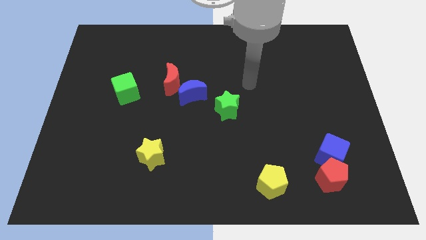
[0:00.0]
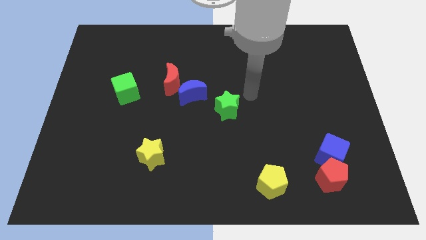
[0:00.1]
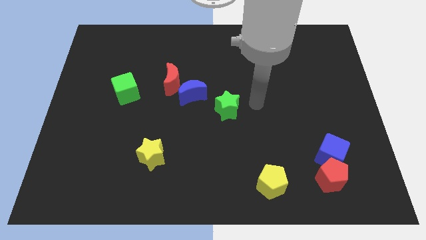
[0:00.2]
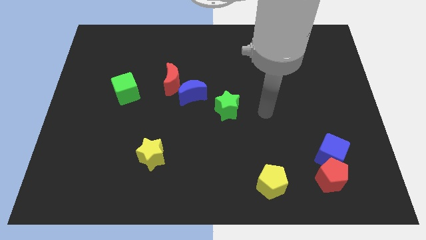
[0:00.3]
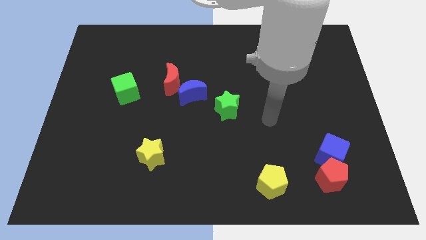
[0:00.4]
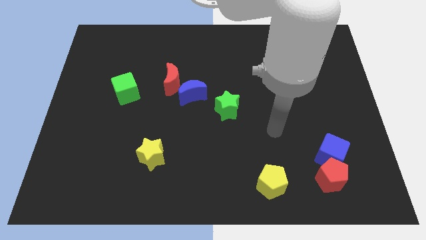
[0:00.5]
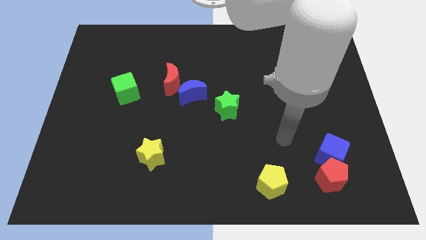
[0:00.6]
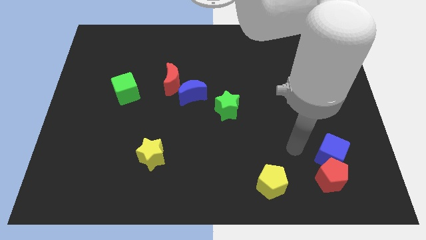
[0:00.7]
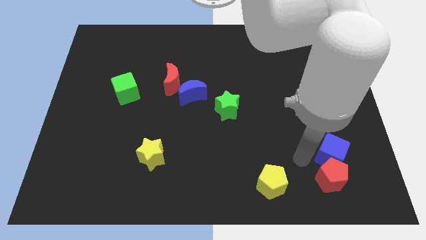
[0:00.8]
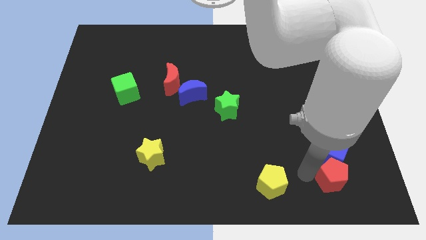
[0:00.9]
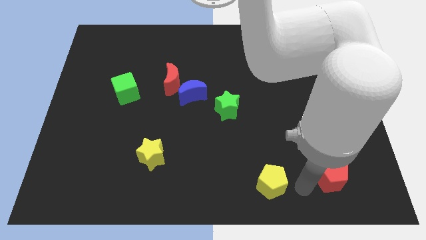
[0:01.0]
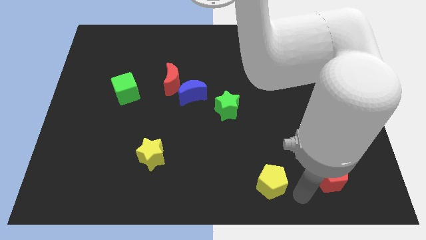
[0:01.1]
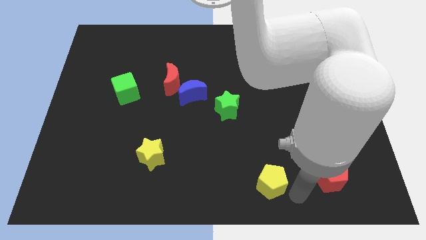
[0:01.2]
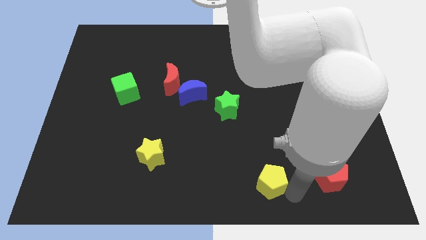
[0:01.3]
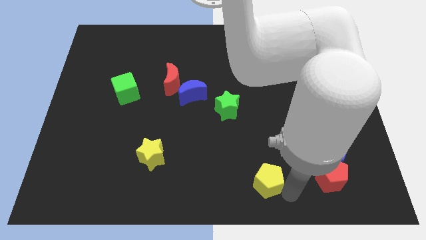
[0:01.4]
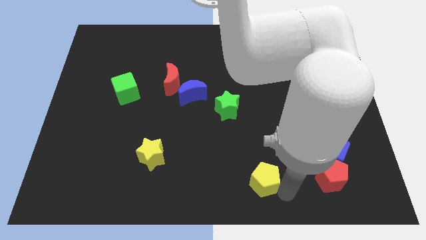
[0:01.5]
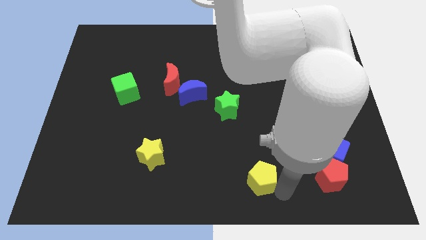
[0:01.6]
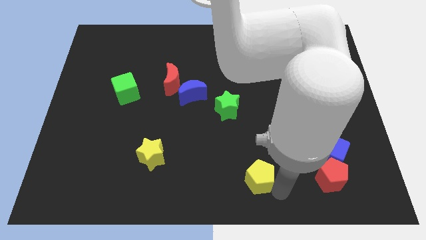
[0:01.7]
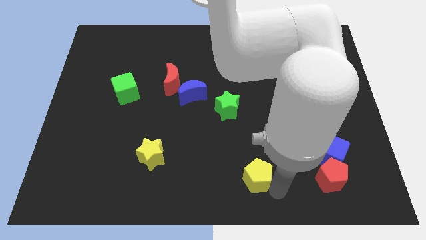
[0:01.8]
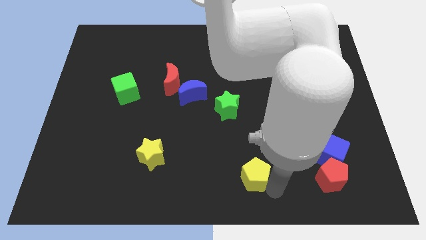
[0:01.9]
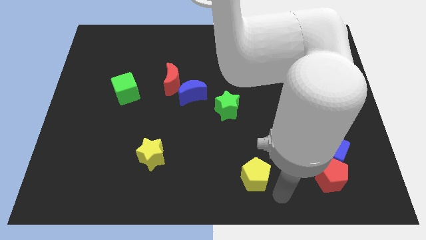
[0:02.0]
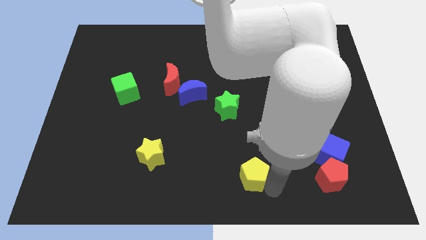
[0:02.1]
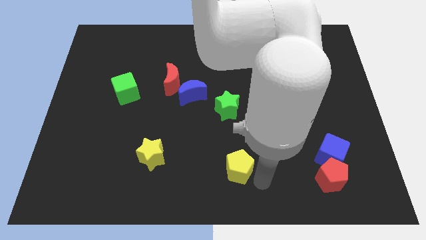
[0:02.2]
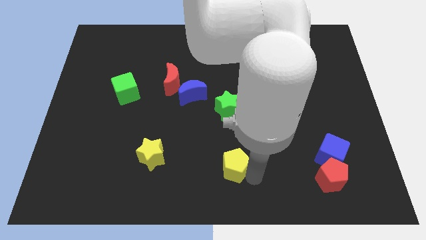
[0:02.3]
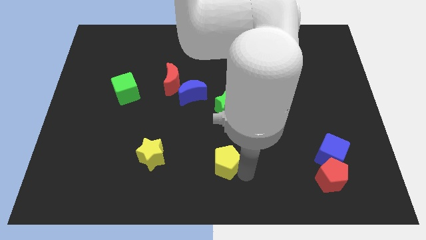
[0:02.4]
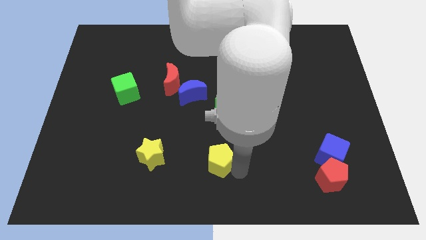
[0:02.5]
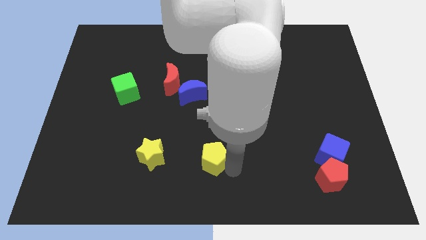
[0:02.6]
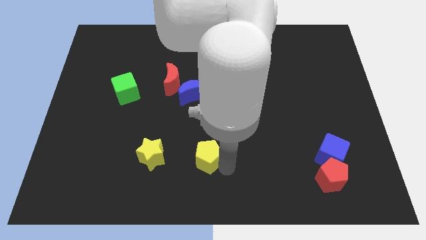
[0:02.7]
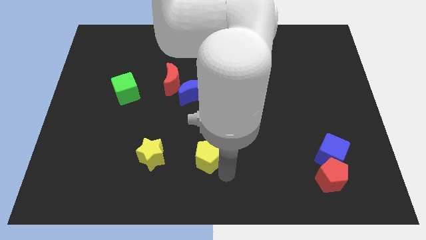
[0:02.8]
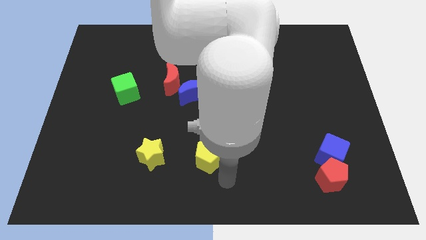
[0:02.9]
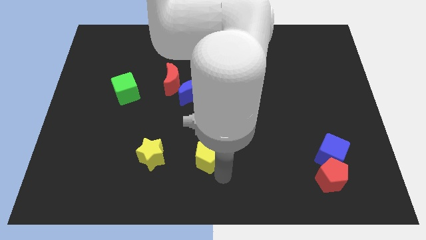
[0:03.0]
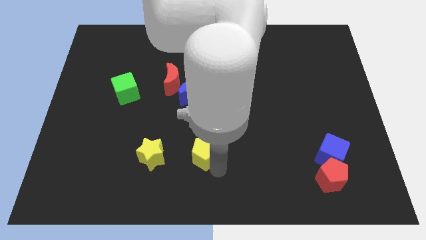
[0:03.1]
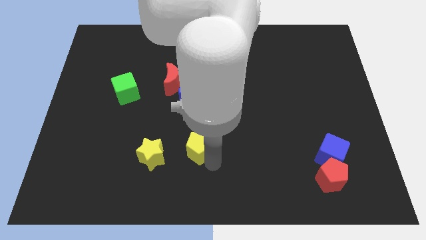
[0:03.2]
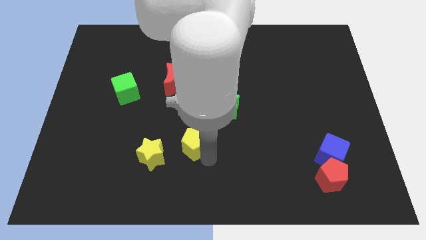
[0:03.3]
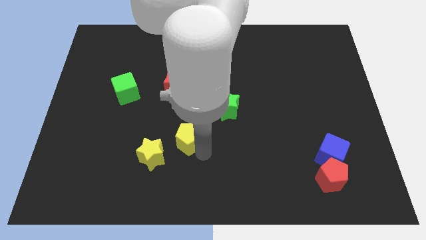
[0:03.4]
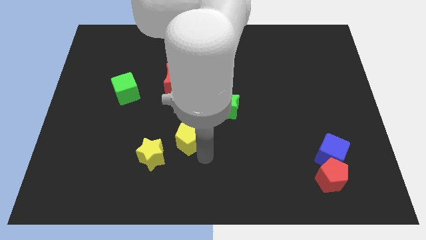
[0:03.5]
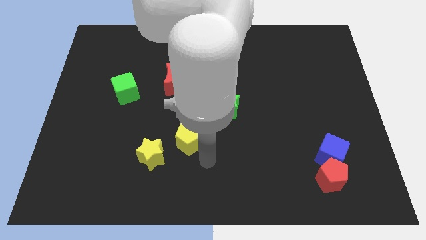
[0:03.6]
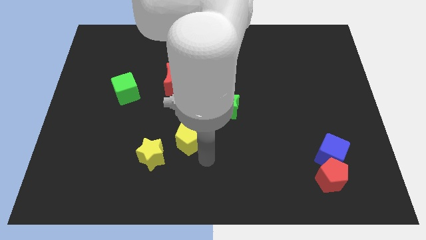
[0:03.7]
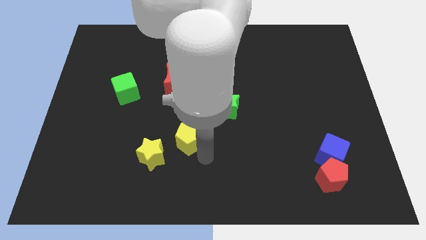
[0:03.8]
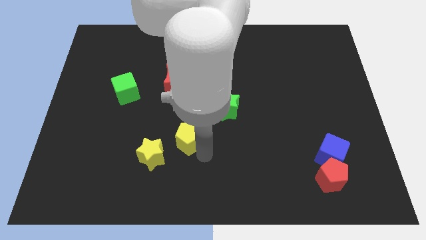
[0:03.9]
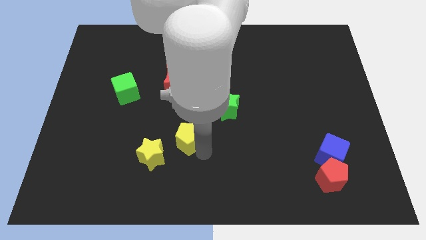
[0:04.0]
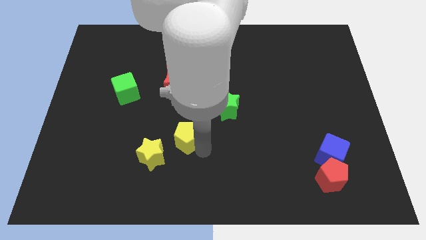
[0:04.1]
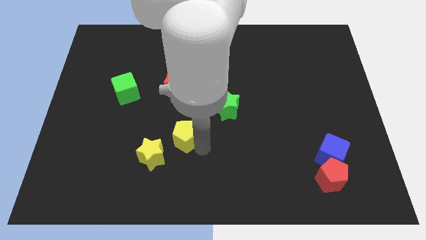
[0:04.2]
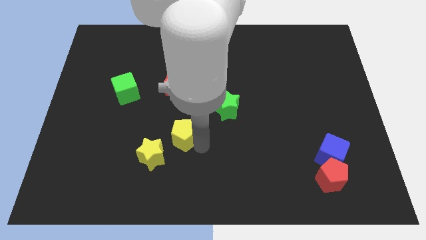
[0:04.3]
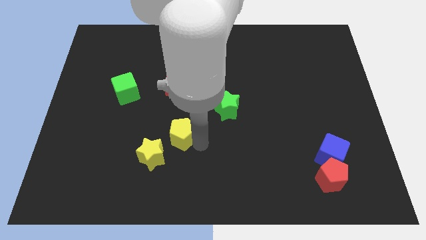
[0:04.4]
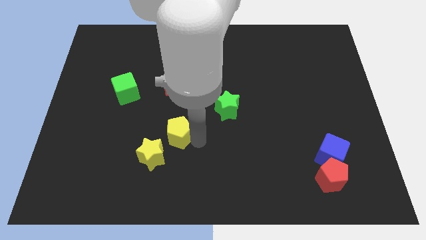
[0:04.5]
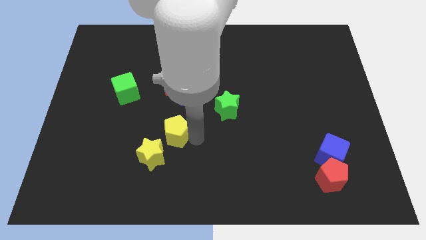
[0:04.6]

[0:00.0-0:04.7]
push the yellow pentagon to the top side of the yellow star

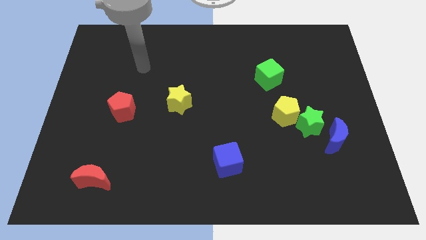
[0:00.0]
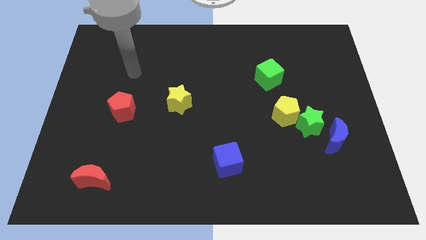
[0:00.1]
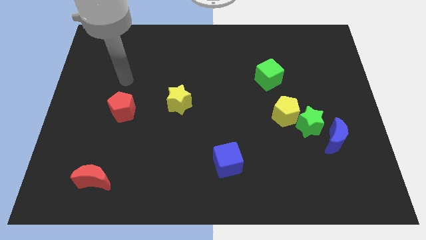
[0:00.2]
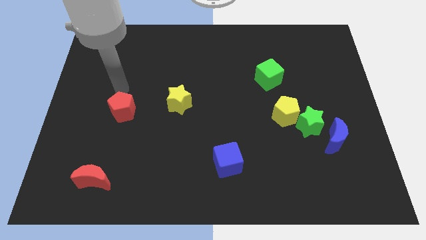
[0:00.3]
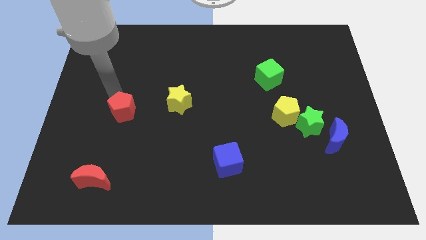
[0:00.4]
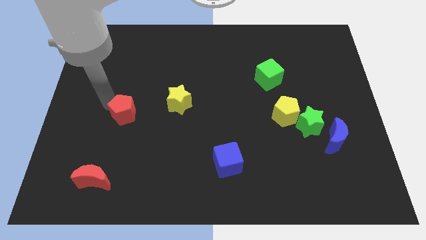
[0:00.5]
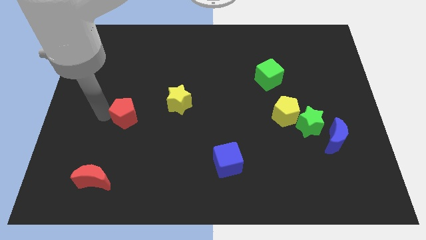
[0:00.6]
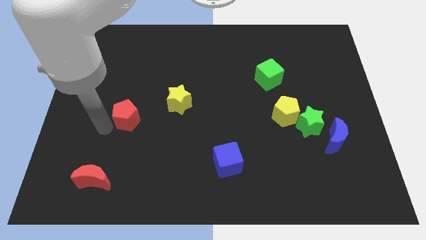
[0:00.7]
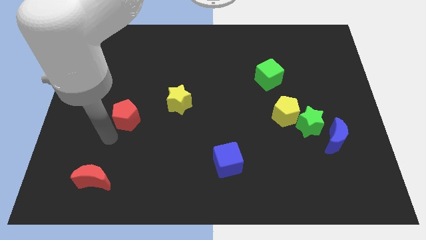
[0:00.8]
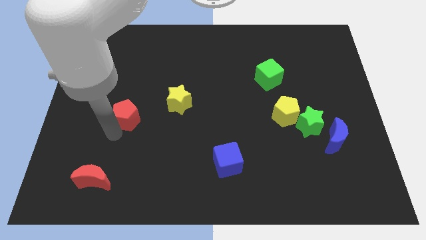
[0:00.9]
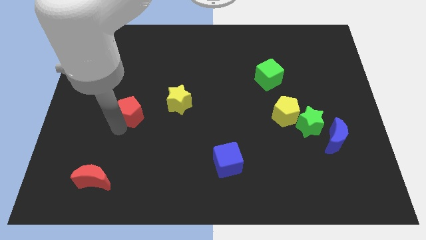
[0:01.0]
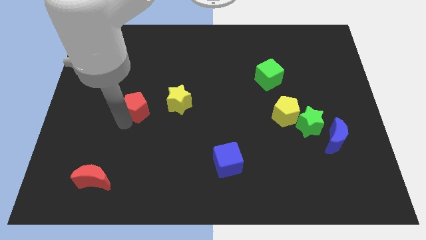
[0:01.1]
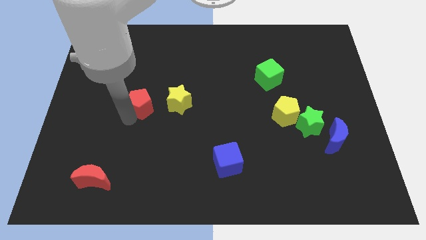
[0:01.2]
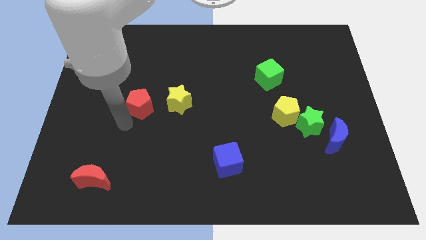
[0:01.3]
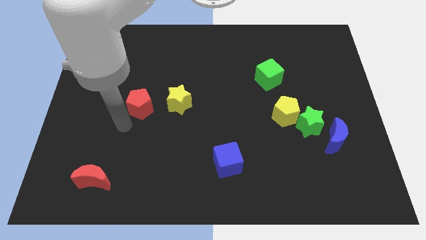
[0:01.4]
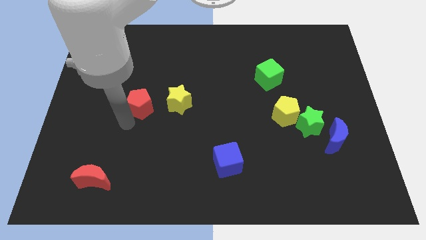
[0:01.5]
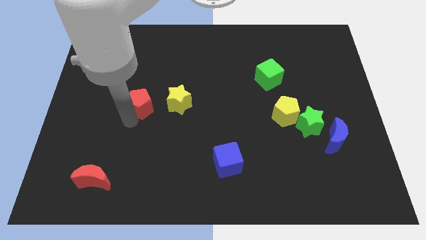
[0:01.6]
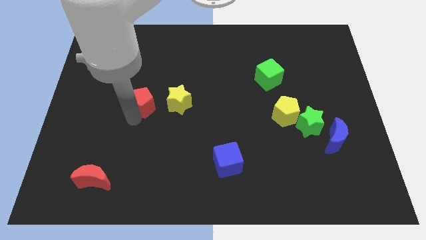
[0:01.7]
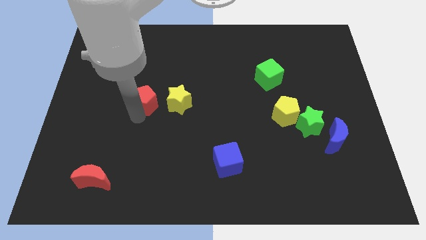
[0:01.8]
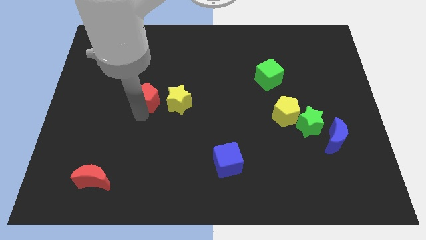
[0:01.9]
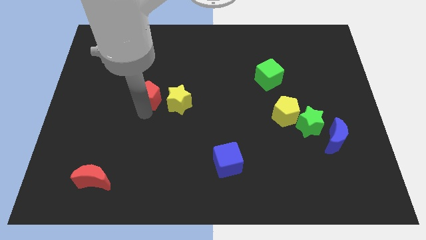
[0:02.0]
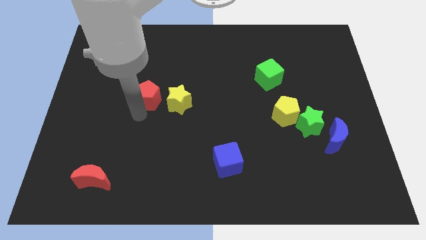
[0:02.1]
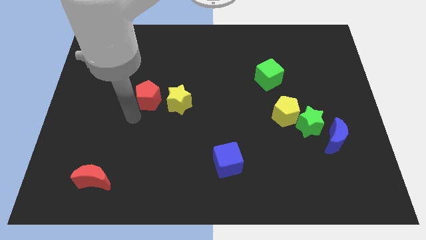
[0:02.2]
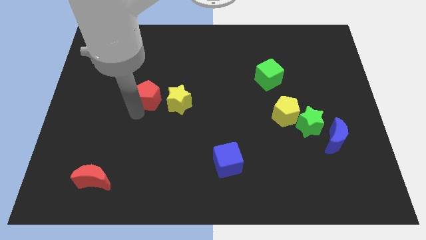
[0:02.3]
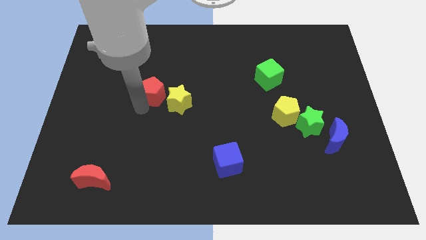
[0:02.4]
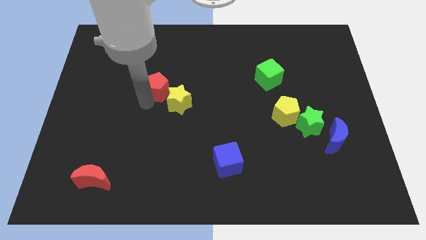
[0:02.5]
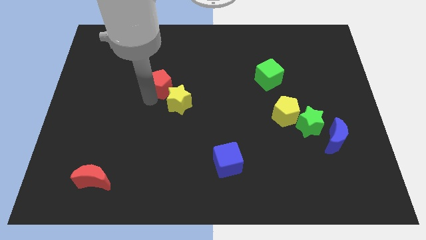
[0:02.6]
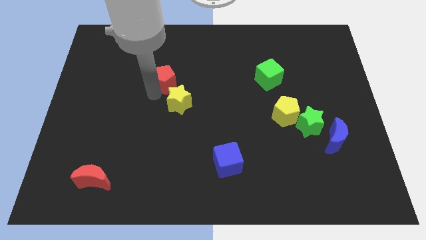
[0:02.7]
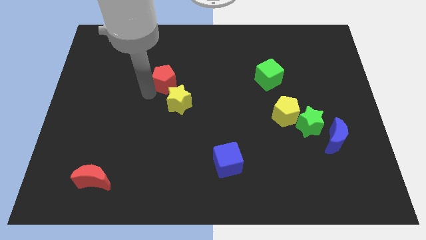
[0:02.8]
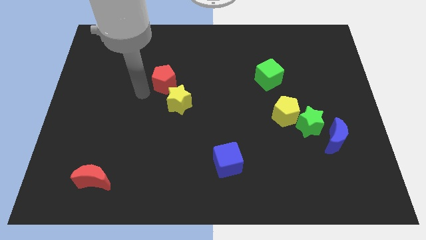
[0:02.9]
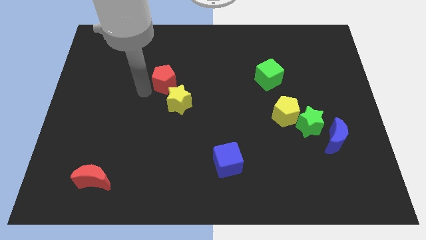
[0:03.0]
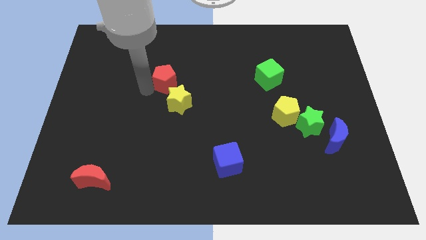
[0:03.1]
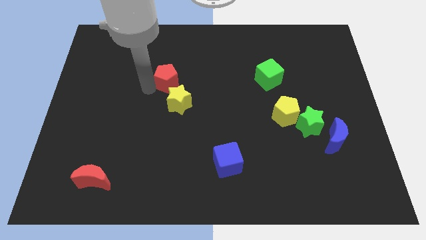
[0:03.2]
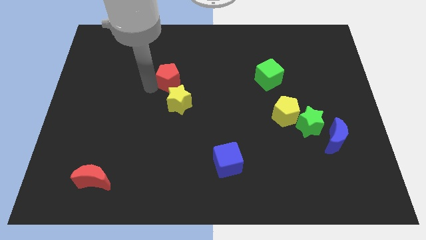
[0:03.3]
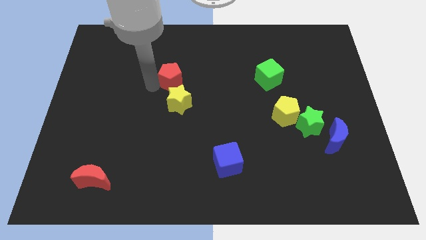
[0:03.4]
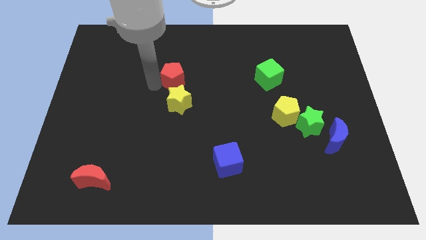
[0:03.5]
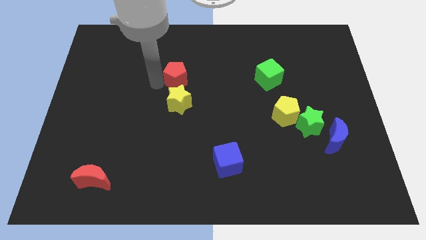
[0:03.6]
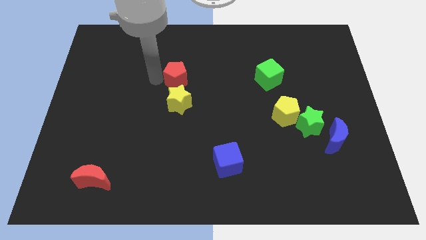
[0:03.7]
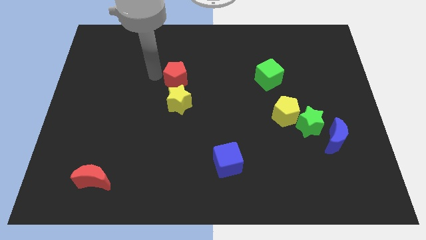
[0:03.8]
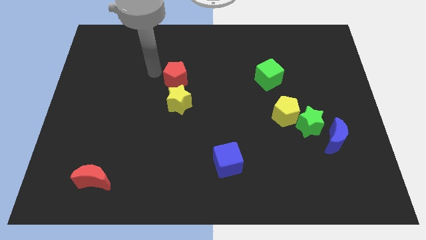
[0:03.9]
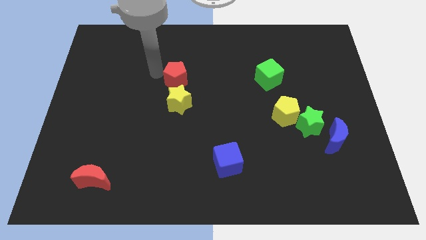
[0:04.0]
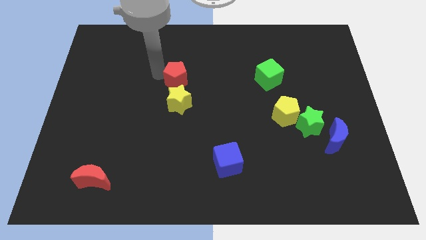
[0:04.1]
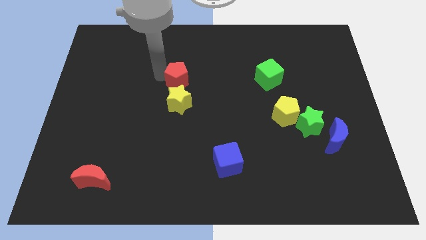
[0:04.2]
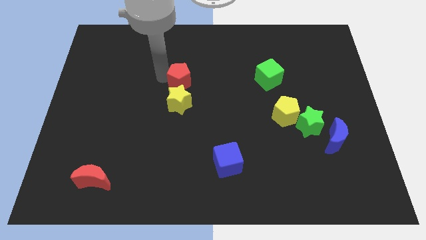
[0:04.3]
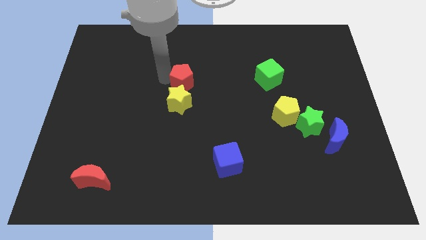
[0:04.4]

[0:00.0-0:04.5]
put the red pentagon diagonally up and to the right of the yellow star
